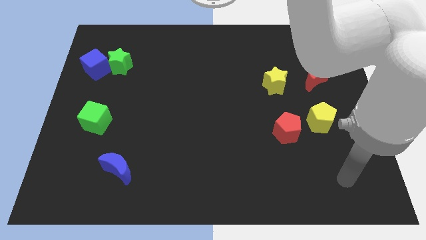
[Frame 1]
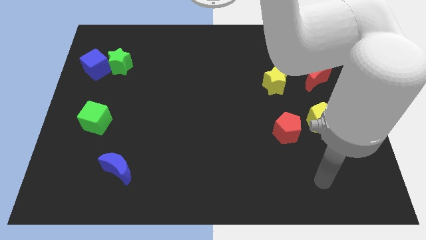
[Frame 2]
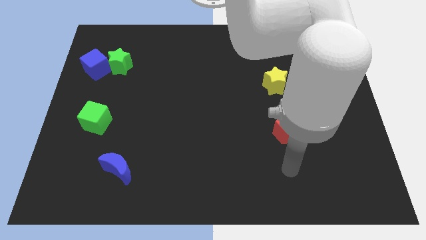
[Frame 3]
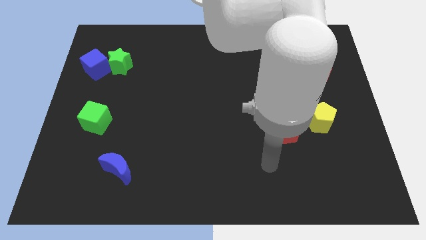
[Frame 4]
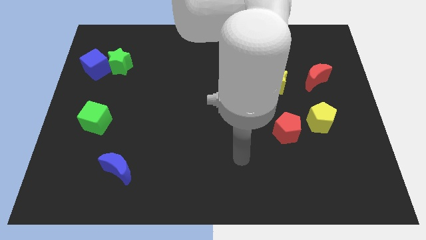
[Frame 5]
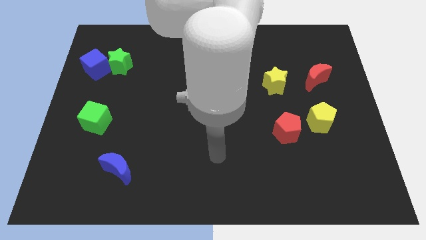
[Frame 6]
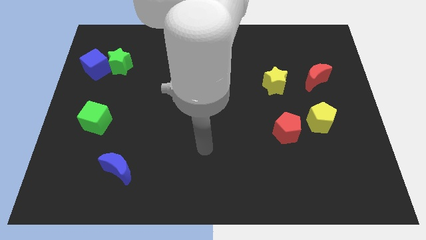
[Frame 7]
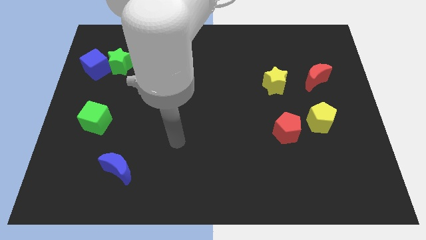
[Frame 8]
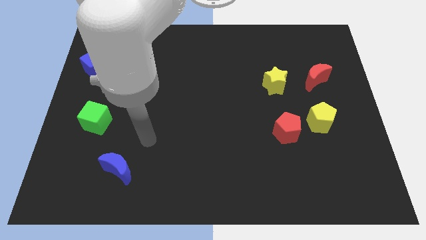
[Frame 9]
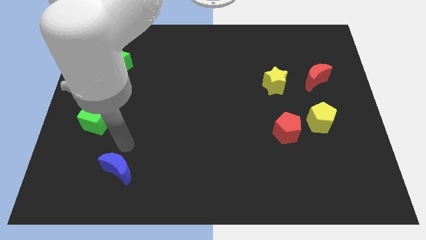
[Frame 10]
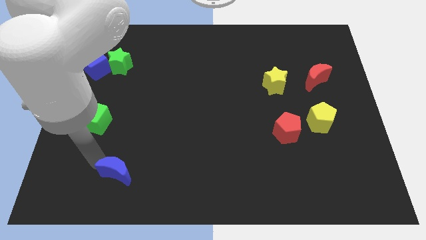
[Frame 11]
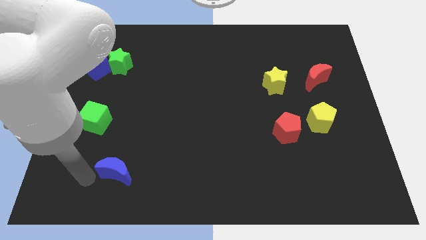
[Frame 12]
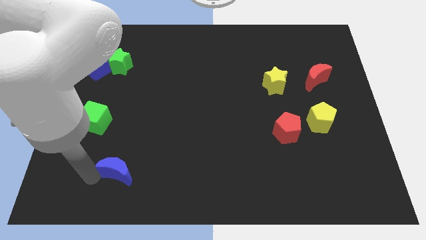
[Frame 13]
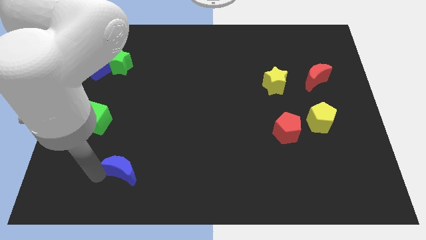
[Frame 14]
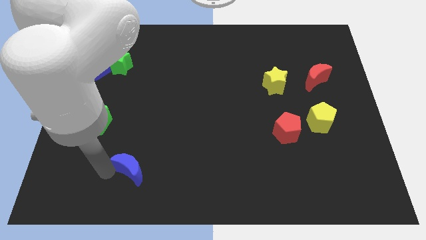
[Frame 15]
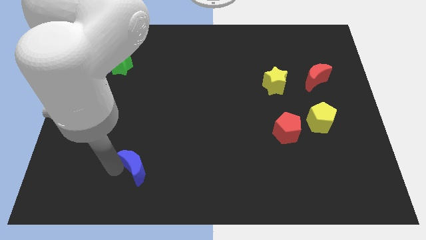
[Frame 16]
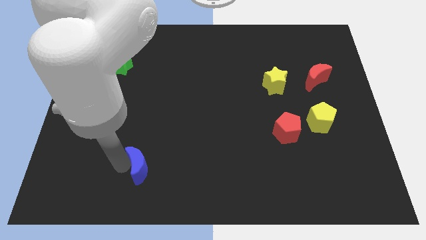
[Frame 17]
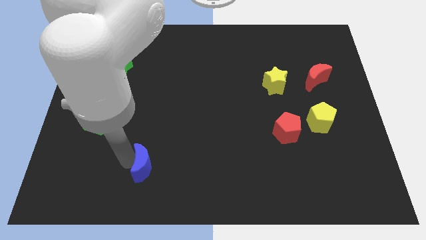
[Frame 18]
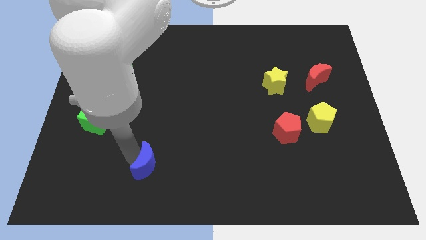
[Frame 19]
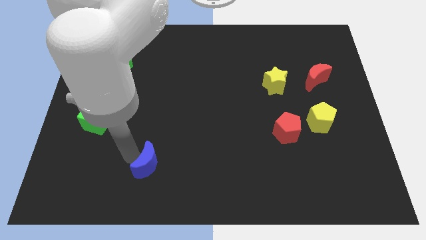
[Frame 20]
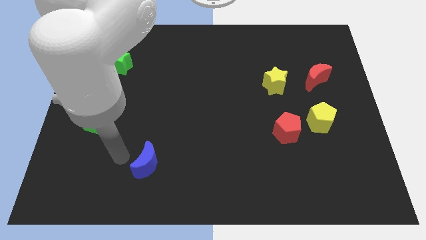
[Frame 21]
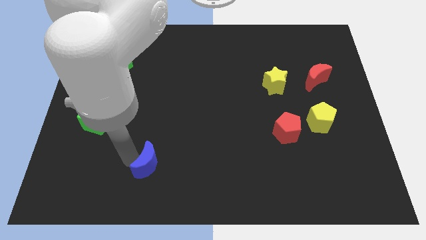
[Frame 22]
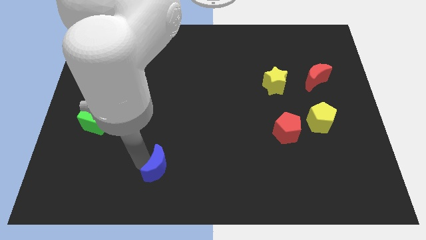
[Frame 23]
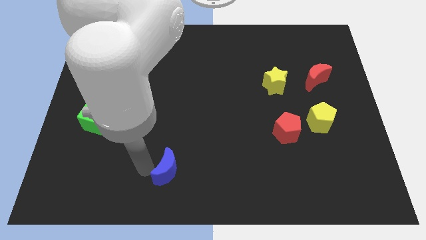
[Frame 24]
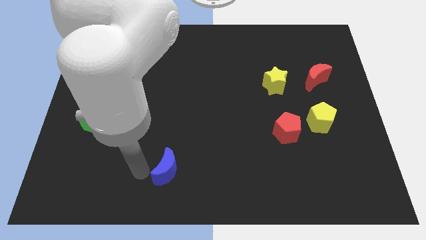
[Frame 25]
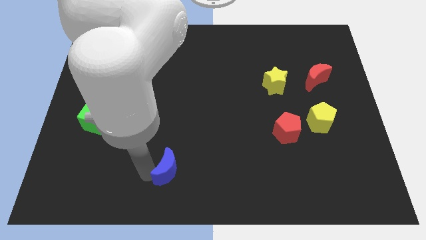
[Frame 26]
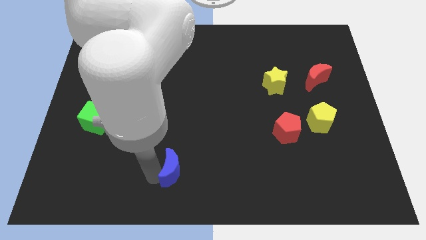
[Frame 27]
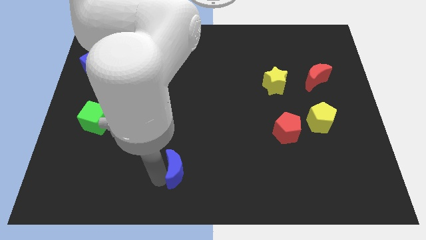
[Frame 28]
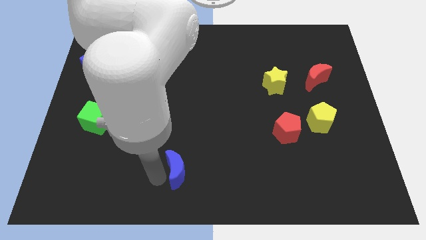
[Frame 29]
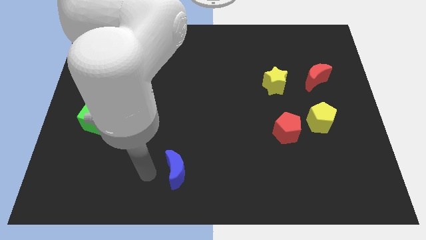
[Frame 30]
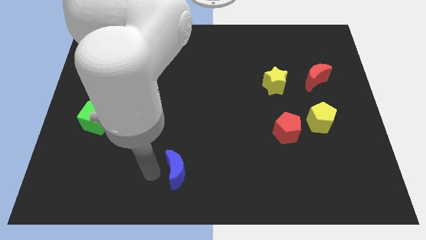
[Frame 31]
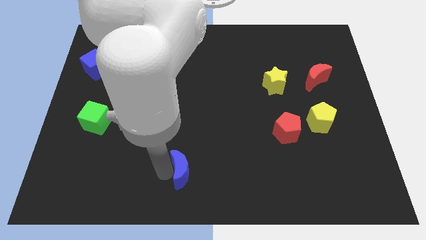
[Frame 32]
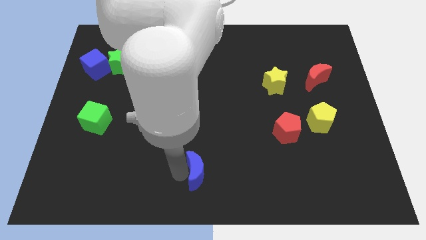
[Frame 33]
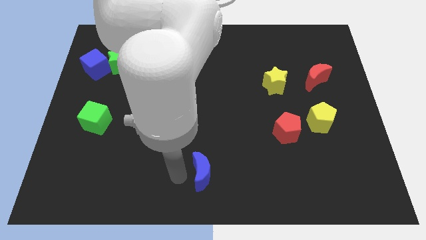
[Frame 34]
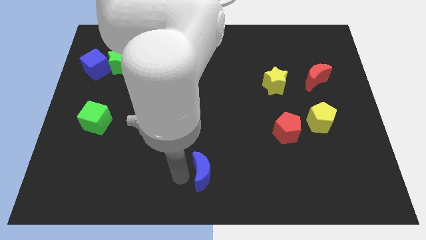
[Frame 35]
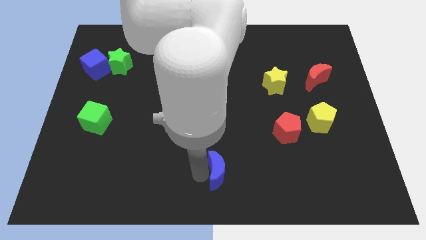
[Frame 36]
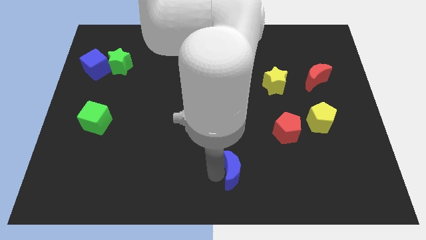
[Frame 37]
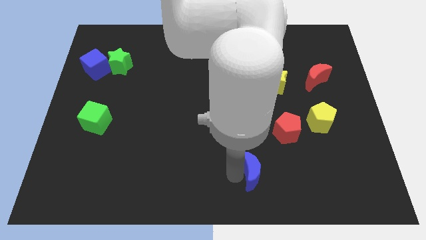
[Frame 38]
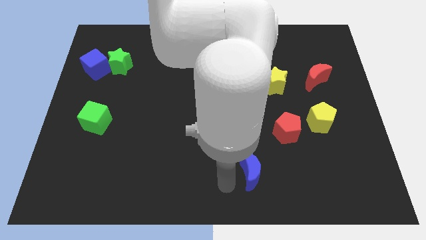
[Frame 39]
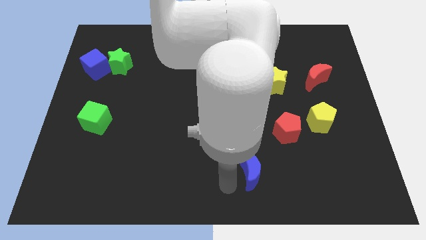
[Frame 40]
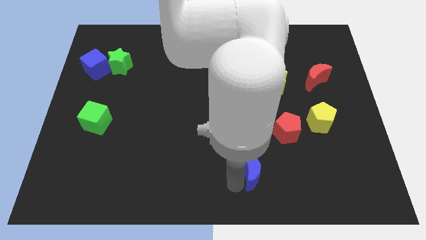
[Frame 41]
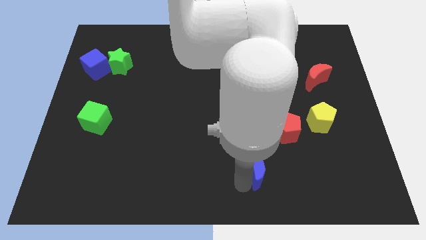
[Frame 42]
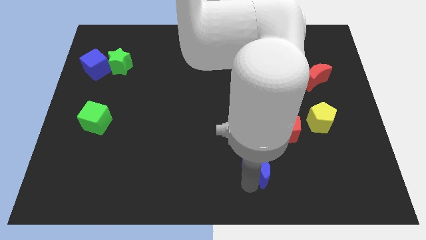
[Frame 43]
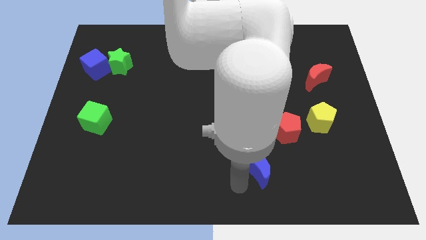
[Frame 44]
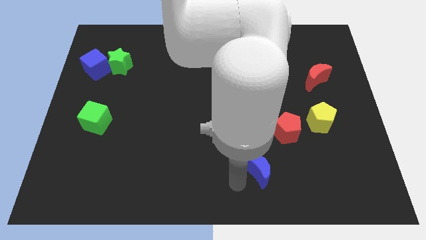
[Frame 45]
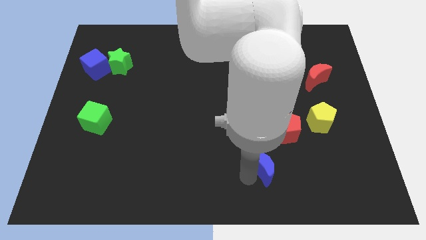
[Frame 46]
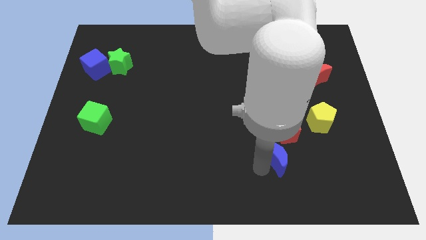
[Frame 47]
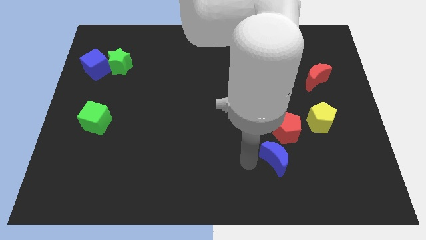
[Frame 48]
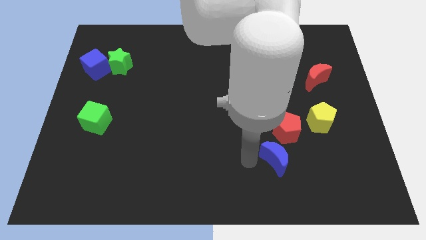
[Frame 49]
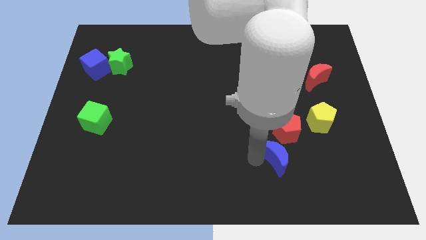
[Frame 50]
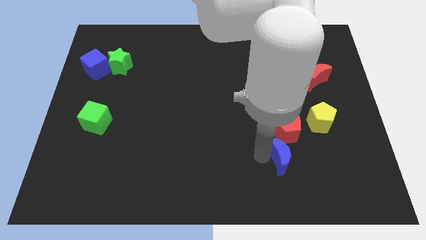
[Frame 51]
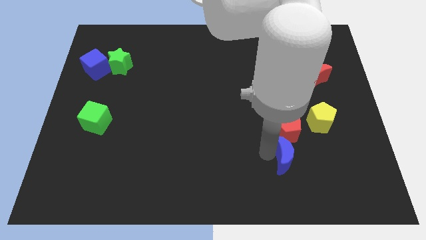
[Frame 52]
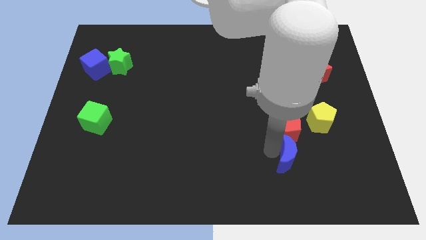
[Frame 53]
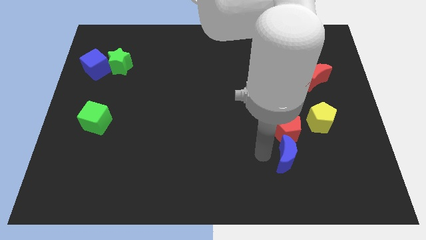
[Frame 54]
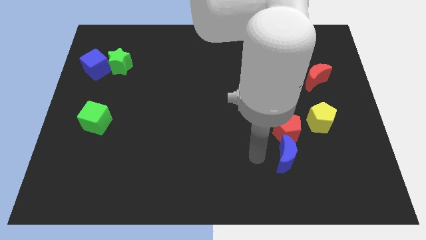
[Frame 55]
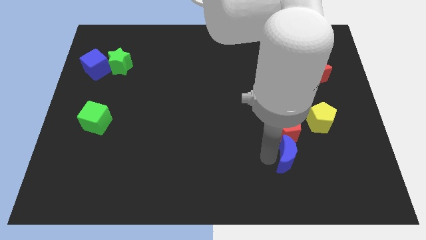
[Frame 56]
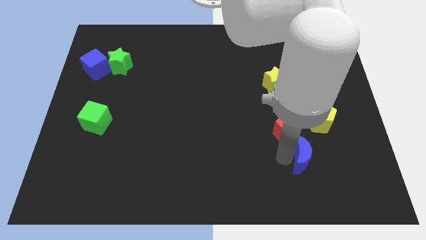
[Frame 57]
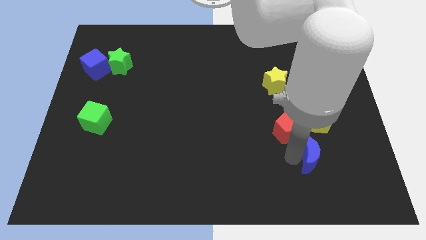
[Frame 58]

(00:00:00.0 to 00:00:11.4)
push the blue moon to the bottom side of the yellow pentagon

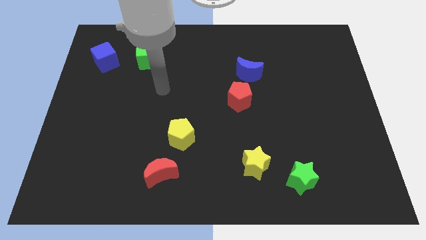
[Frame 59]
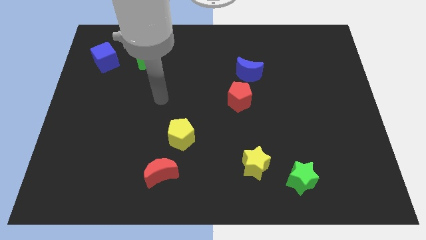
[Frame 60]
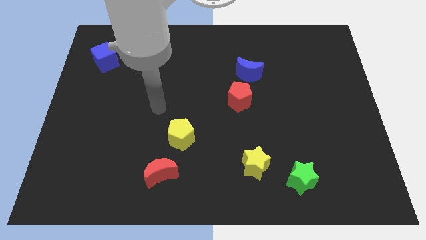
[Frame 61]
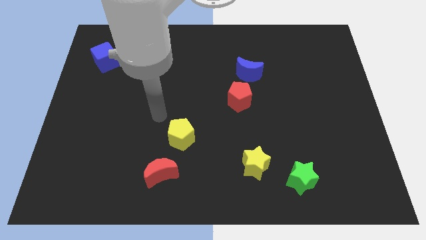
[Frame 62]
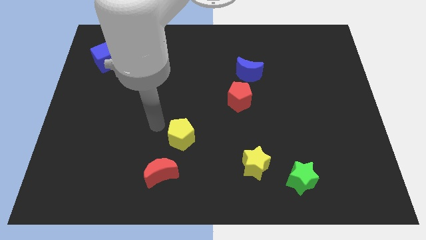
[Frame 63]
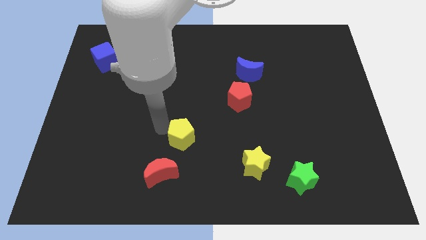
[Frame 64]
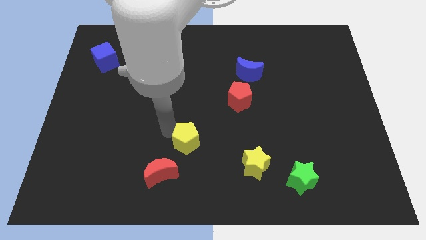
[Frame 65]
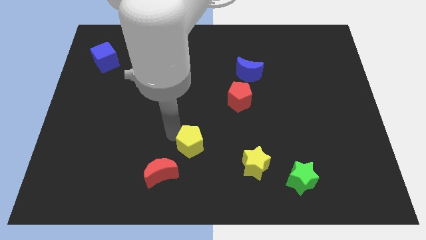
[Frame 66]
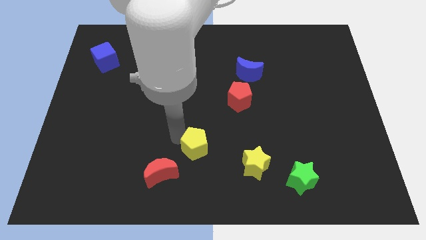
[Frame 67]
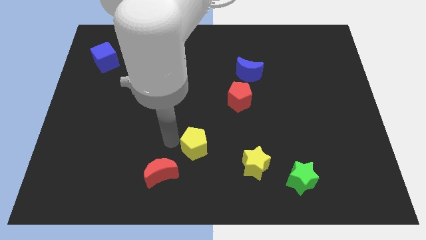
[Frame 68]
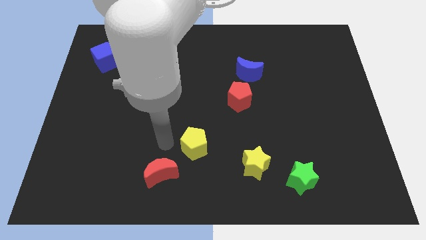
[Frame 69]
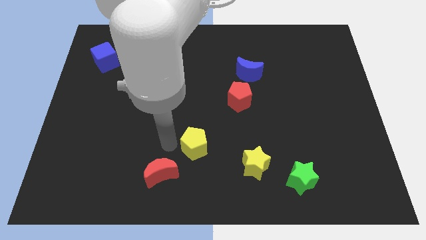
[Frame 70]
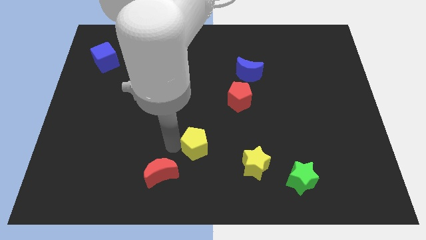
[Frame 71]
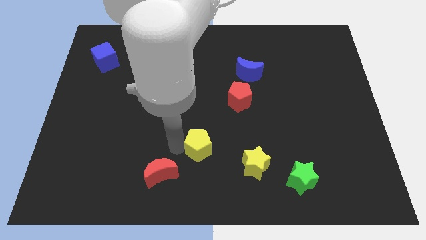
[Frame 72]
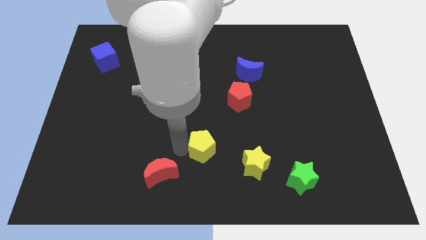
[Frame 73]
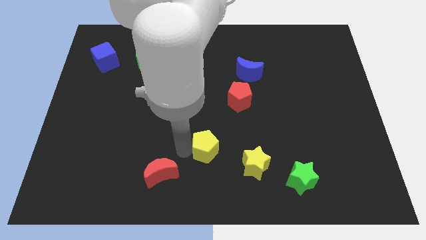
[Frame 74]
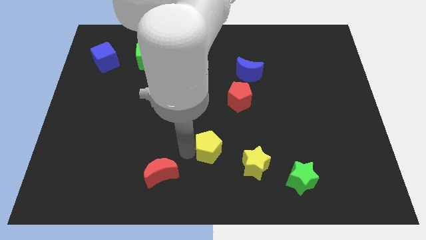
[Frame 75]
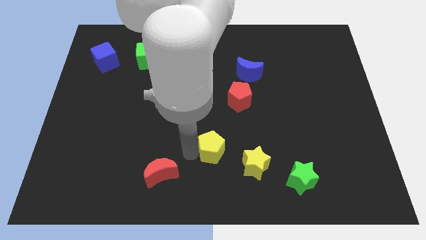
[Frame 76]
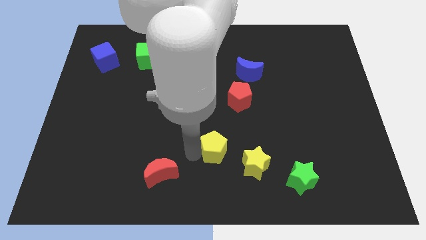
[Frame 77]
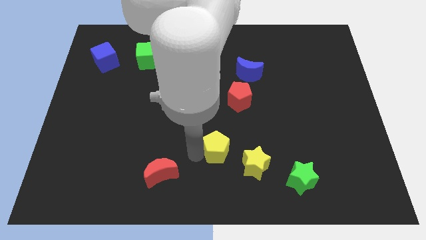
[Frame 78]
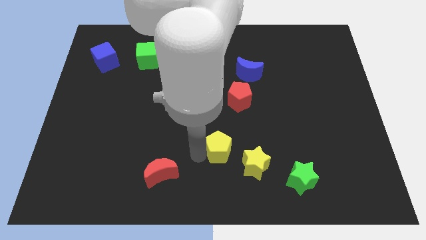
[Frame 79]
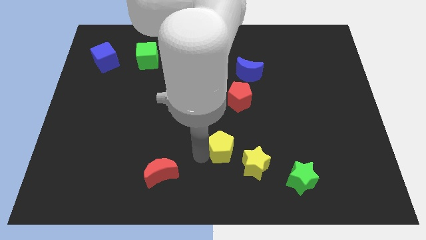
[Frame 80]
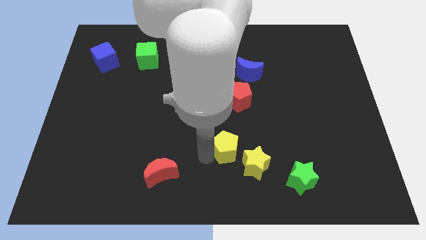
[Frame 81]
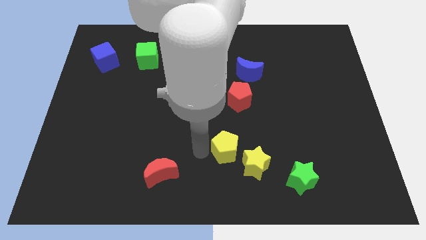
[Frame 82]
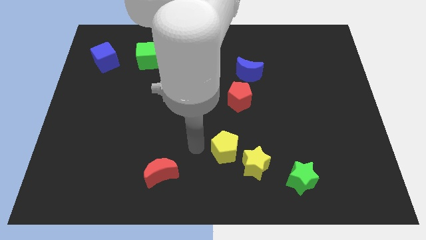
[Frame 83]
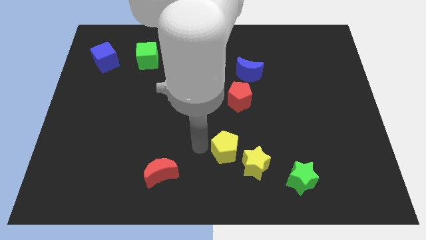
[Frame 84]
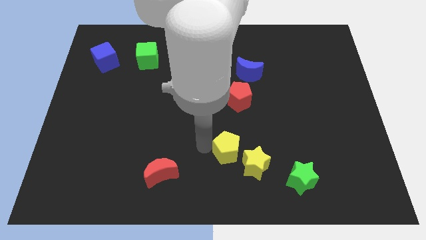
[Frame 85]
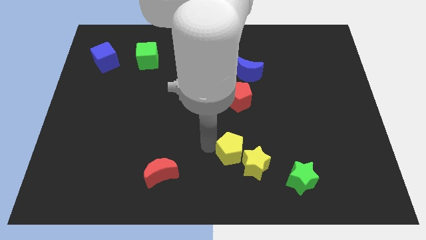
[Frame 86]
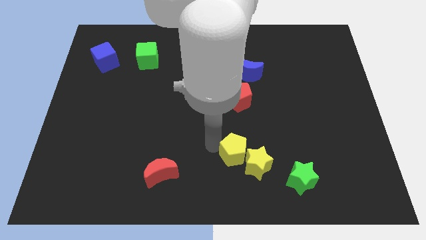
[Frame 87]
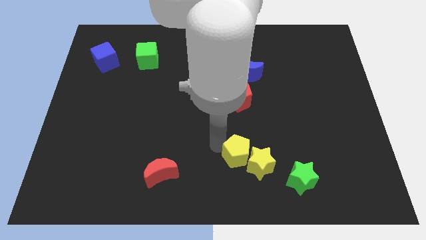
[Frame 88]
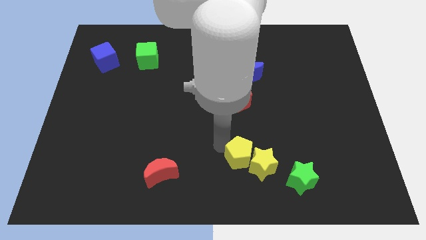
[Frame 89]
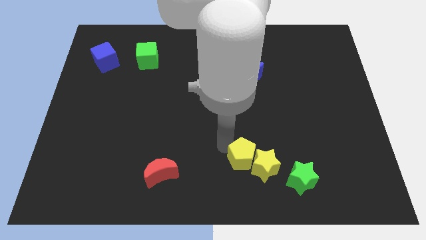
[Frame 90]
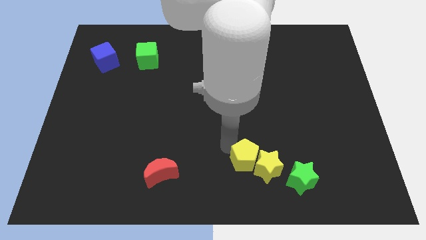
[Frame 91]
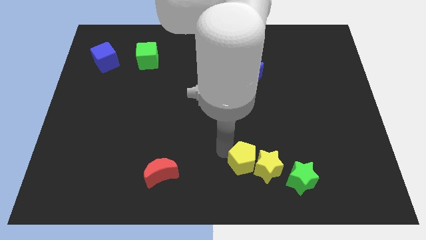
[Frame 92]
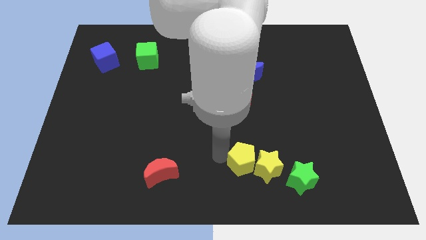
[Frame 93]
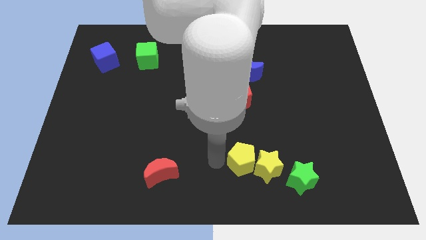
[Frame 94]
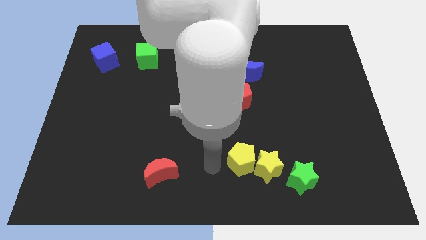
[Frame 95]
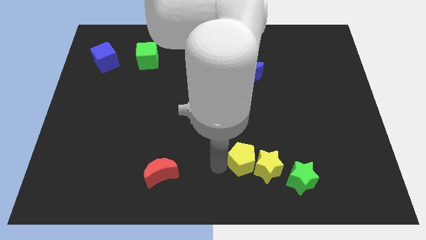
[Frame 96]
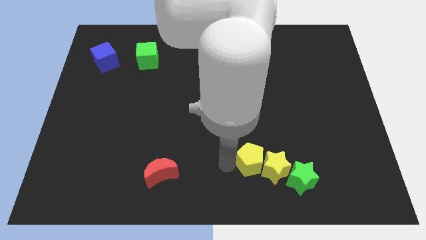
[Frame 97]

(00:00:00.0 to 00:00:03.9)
slide the yellow pentagon to the top left of the green star
